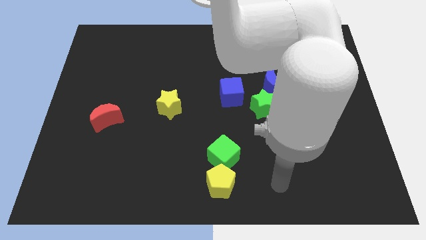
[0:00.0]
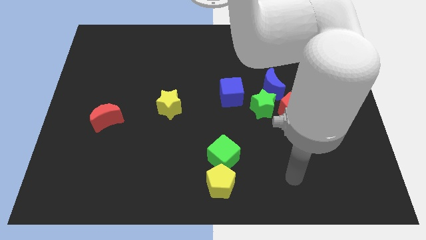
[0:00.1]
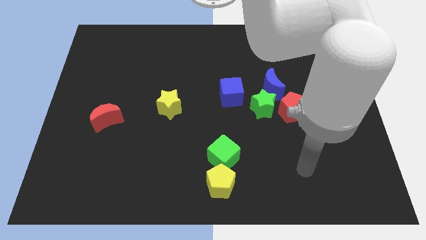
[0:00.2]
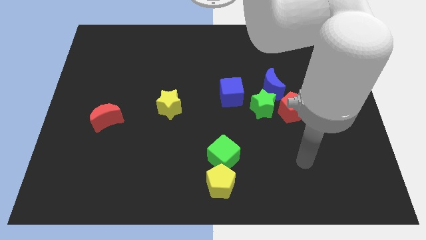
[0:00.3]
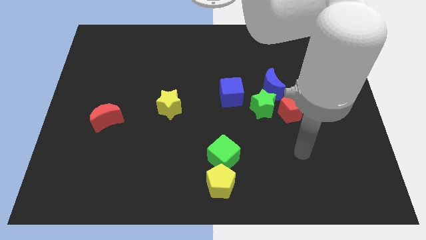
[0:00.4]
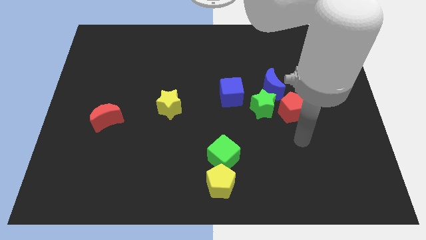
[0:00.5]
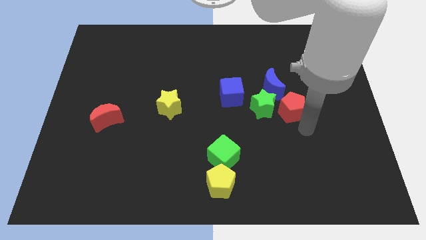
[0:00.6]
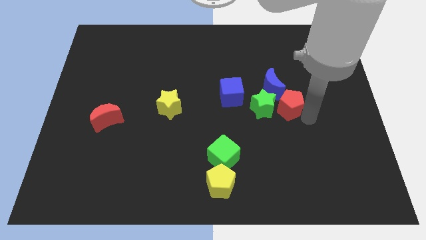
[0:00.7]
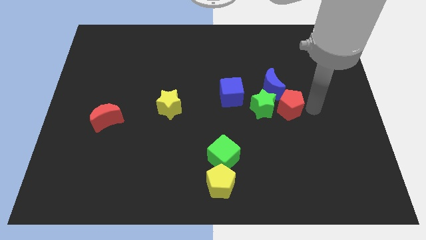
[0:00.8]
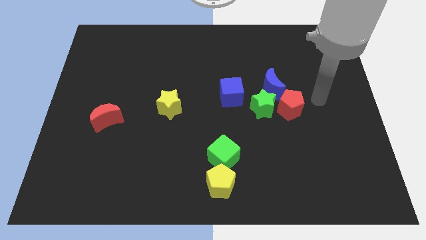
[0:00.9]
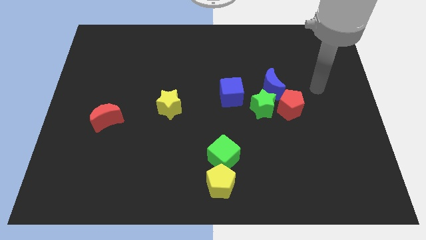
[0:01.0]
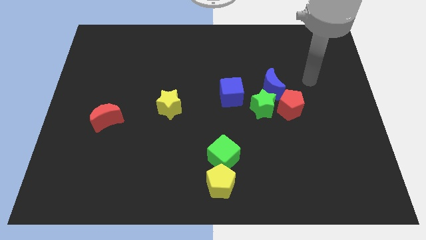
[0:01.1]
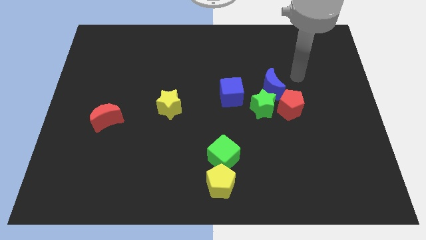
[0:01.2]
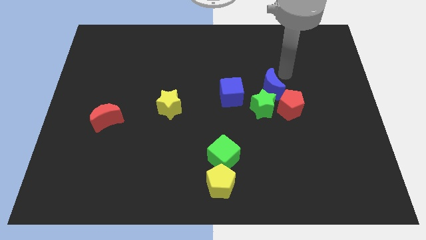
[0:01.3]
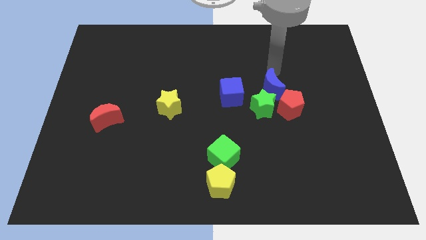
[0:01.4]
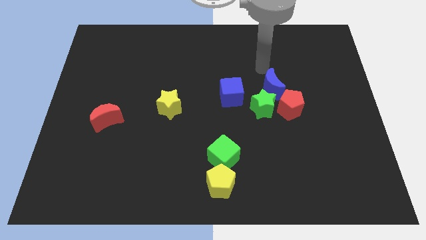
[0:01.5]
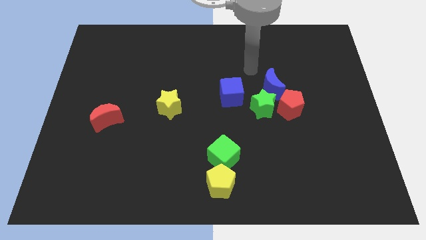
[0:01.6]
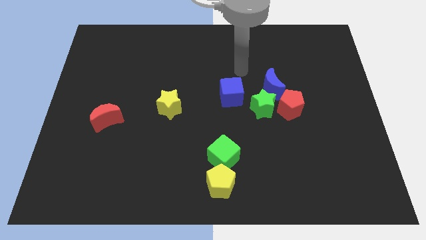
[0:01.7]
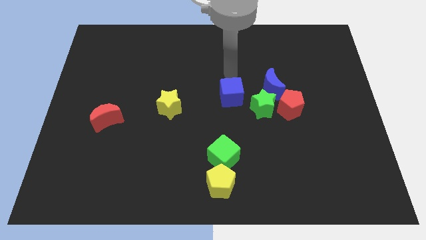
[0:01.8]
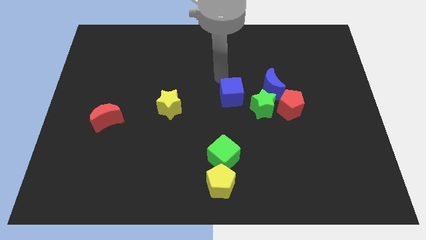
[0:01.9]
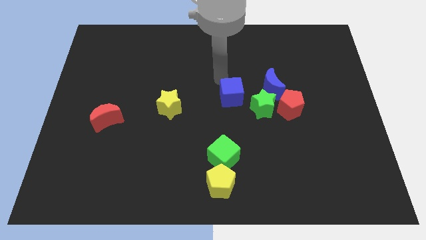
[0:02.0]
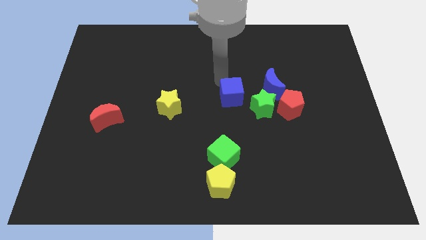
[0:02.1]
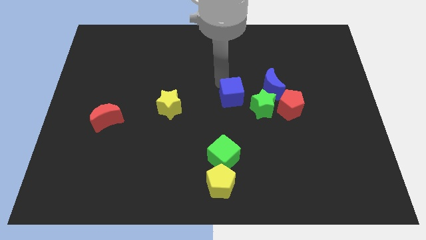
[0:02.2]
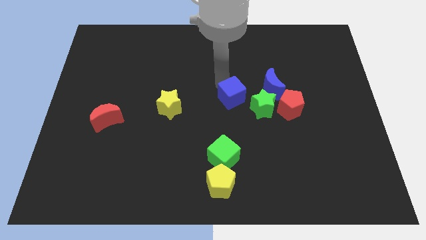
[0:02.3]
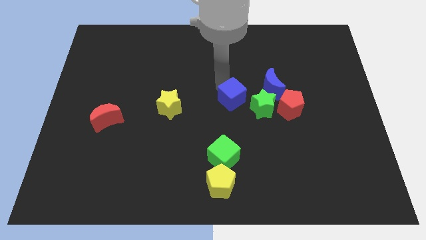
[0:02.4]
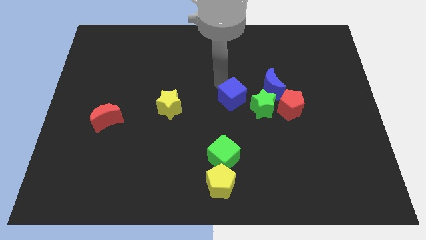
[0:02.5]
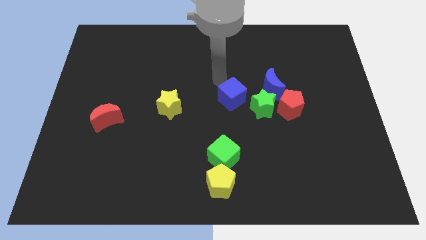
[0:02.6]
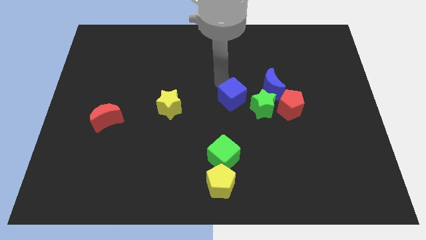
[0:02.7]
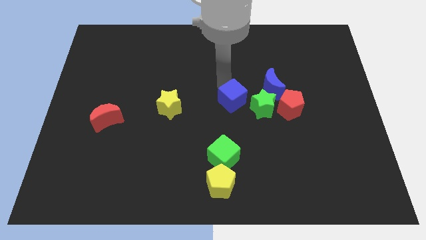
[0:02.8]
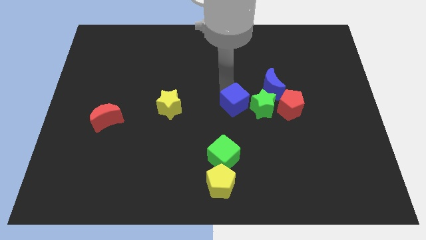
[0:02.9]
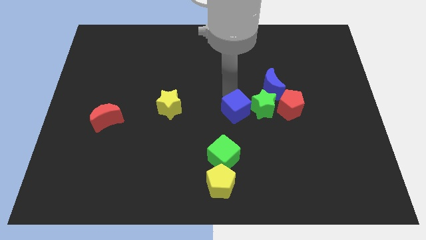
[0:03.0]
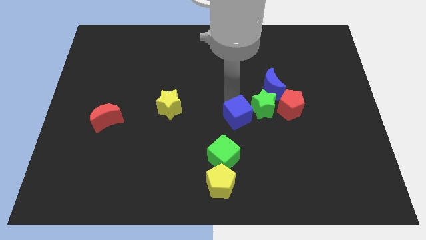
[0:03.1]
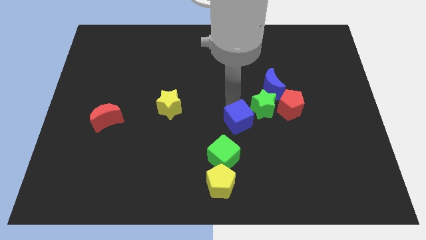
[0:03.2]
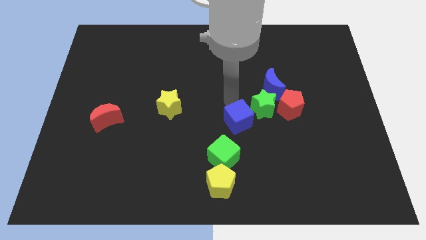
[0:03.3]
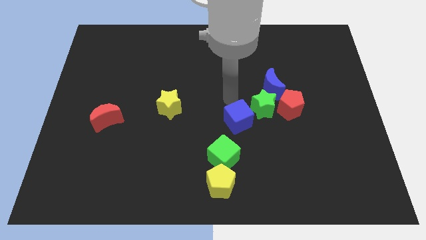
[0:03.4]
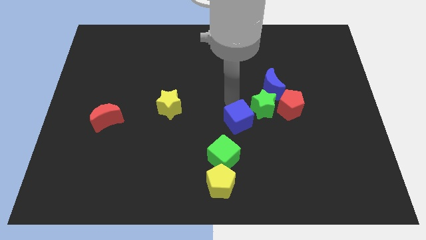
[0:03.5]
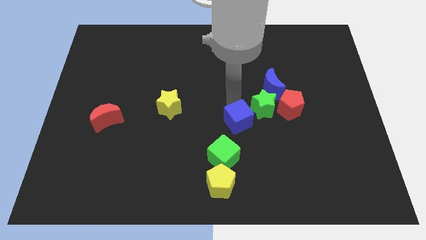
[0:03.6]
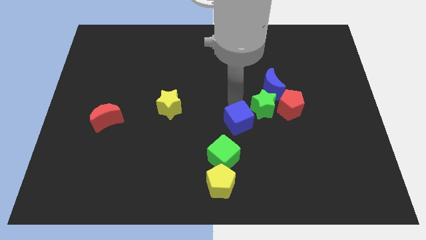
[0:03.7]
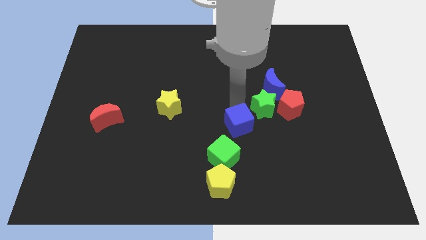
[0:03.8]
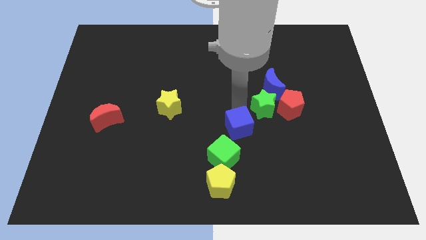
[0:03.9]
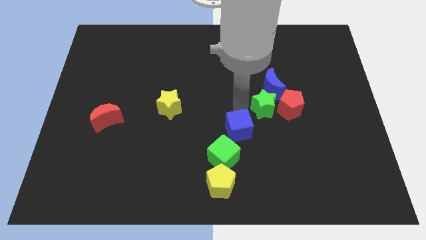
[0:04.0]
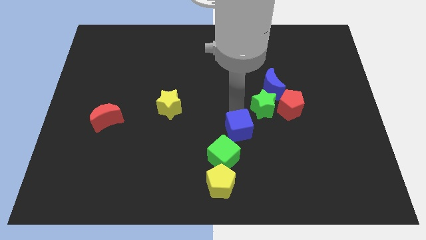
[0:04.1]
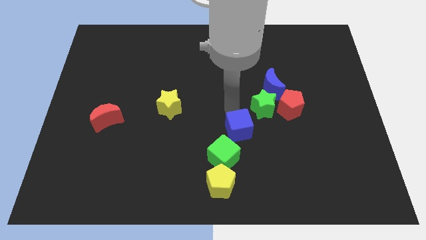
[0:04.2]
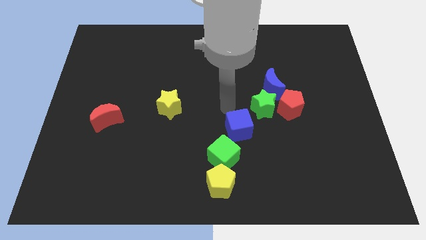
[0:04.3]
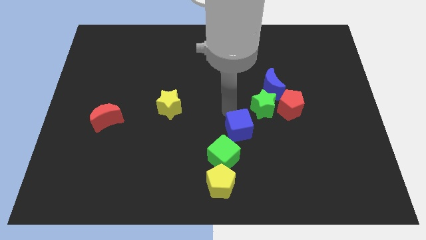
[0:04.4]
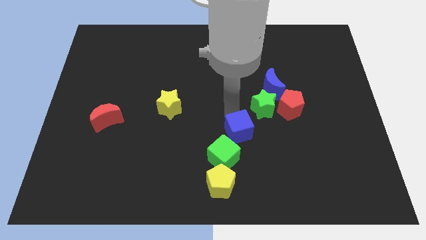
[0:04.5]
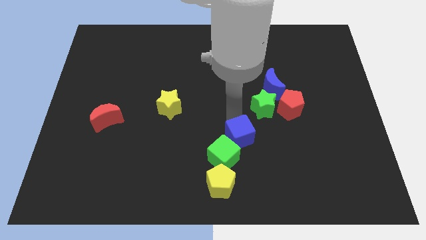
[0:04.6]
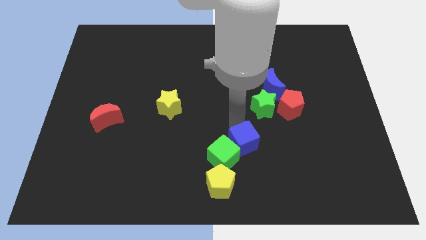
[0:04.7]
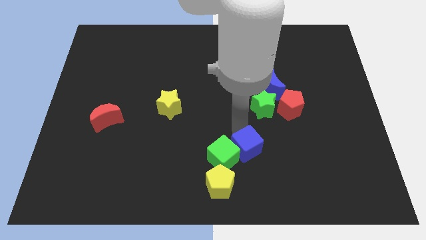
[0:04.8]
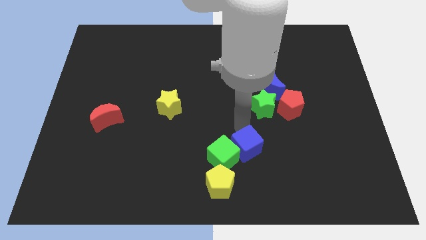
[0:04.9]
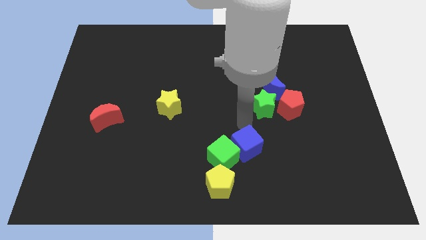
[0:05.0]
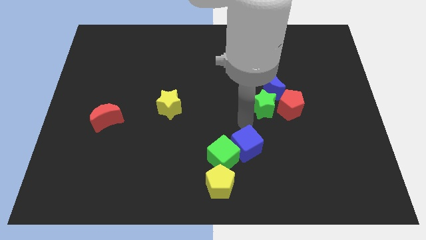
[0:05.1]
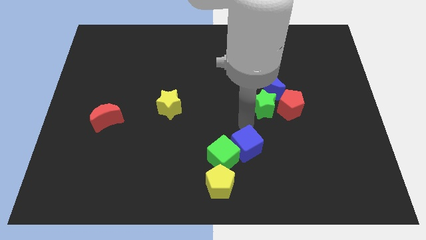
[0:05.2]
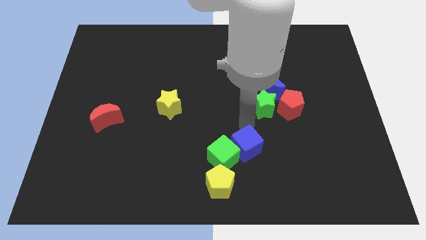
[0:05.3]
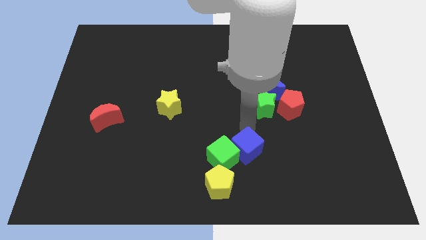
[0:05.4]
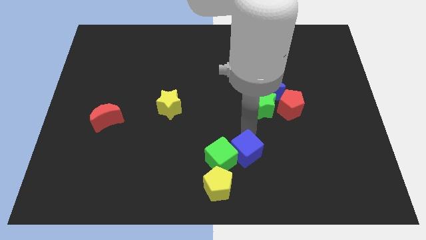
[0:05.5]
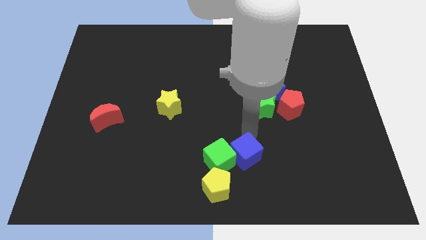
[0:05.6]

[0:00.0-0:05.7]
slide the blue cube diagonally down and to the right of the green cube
